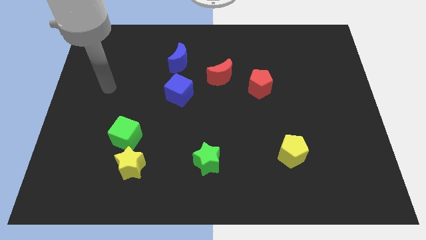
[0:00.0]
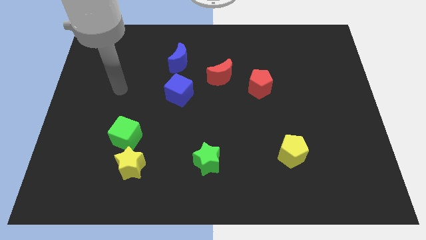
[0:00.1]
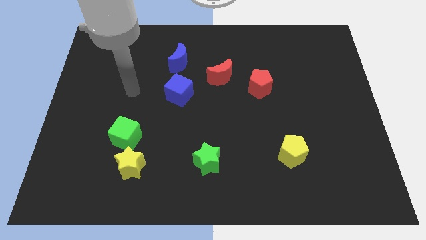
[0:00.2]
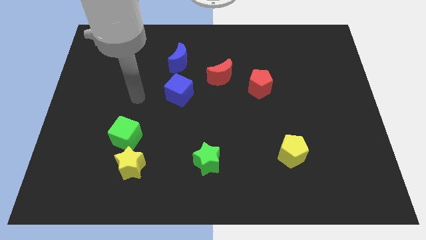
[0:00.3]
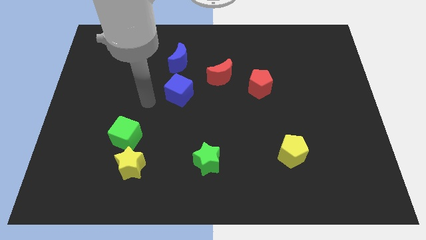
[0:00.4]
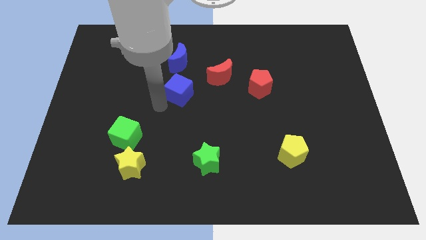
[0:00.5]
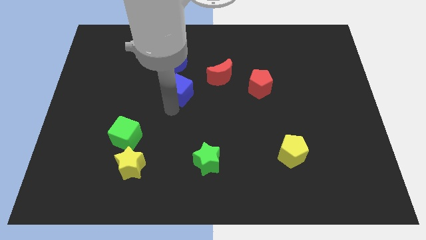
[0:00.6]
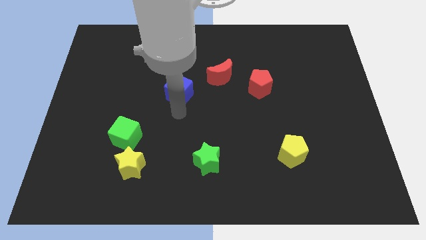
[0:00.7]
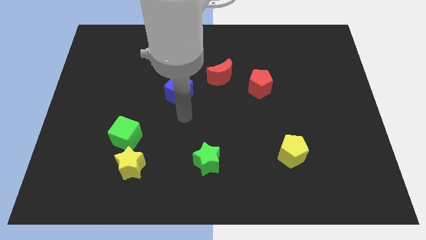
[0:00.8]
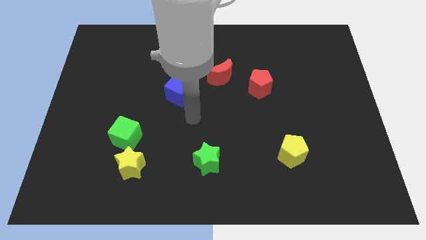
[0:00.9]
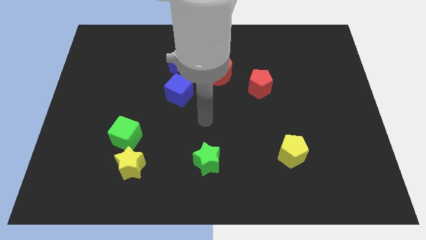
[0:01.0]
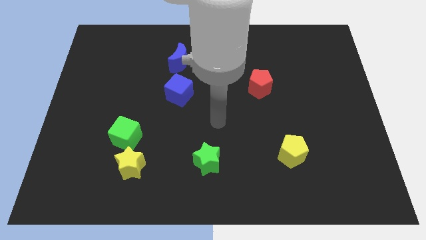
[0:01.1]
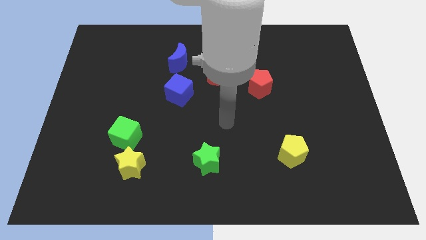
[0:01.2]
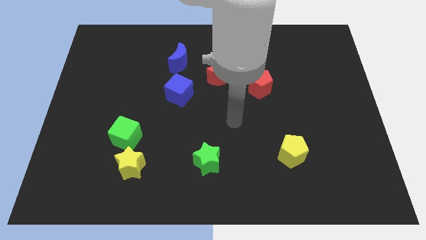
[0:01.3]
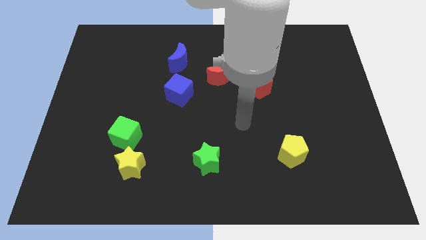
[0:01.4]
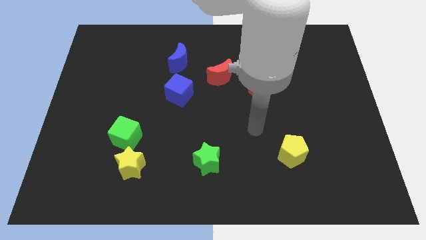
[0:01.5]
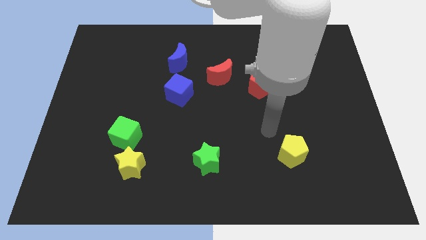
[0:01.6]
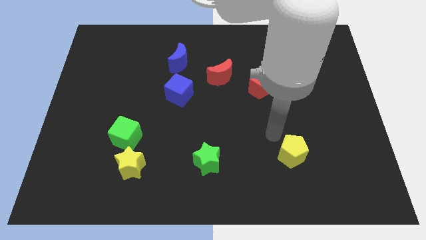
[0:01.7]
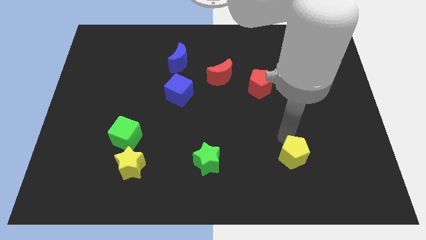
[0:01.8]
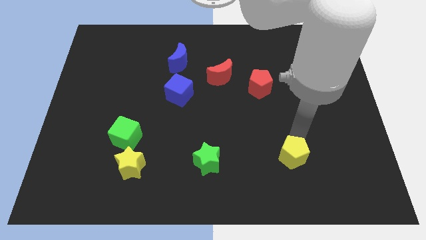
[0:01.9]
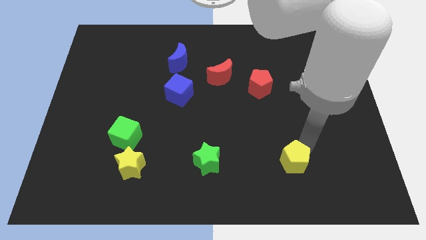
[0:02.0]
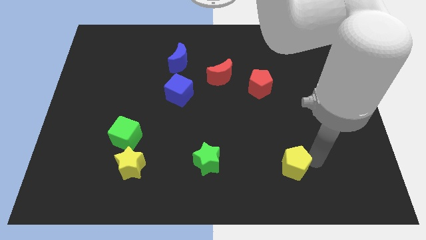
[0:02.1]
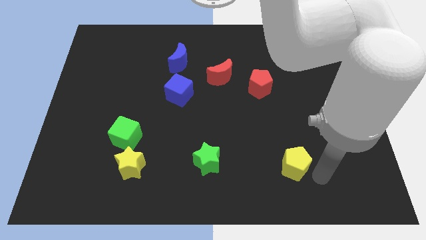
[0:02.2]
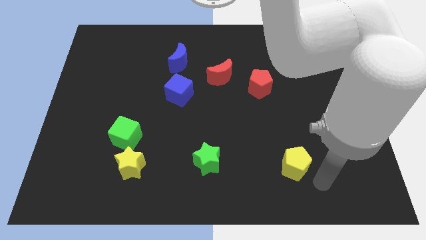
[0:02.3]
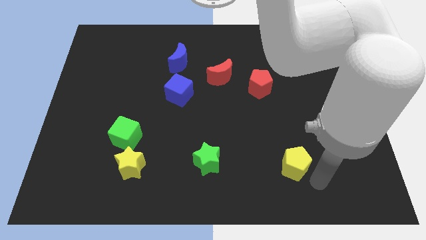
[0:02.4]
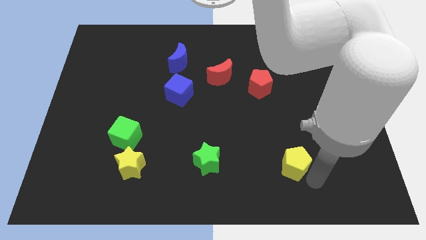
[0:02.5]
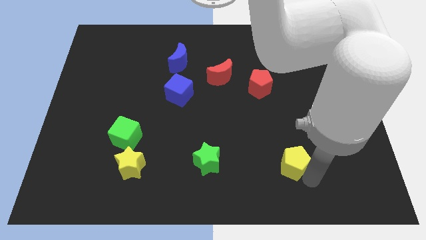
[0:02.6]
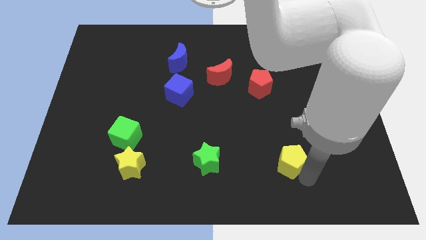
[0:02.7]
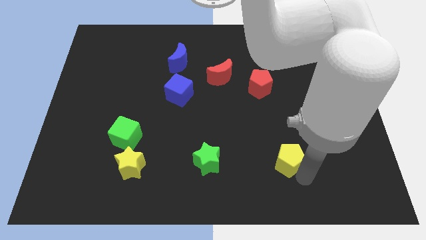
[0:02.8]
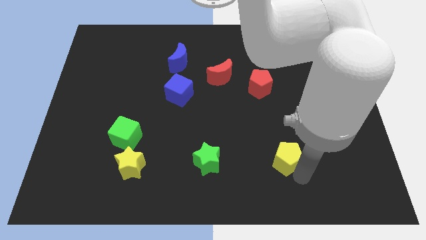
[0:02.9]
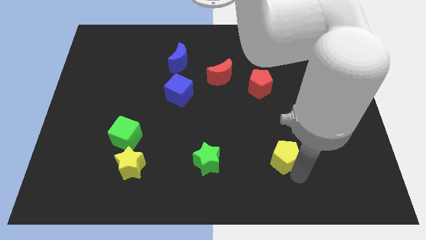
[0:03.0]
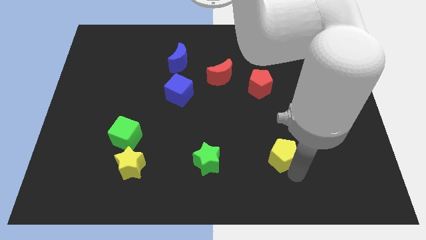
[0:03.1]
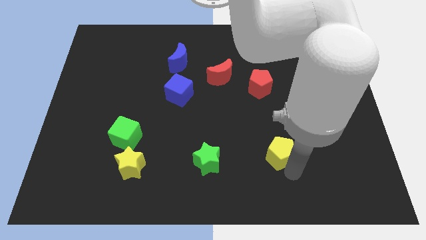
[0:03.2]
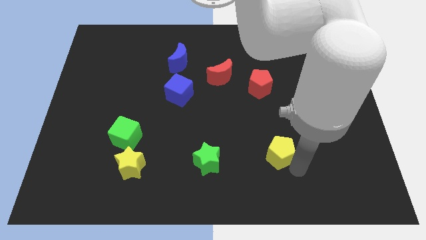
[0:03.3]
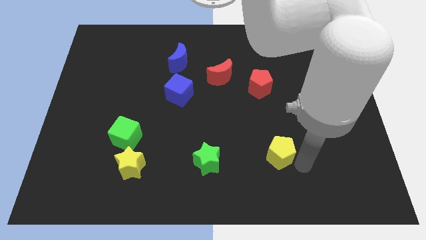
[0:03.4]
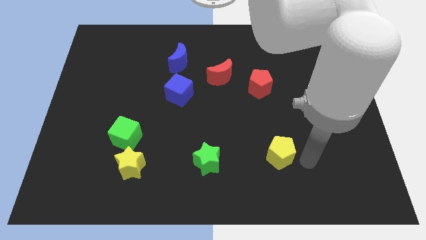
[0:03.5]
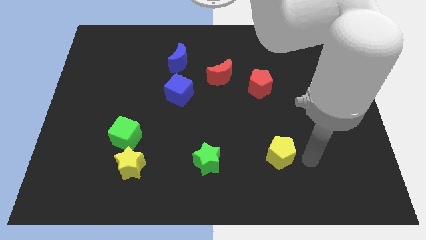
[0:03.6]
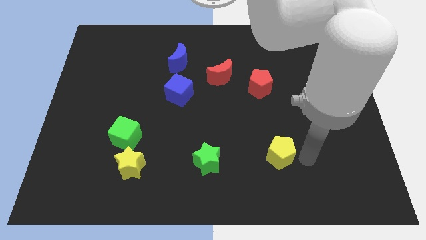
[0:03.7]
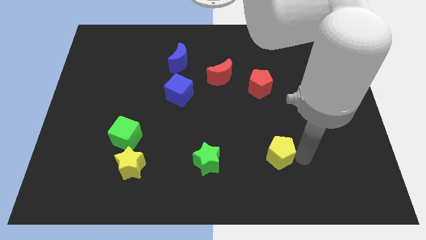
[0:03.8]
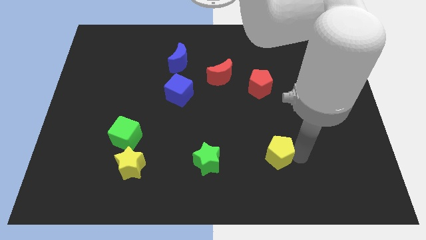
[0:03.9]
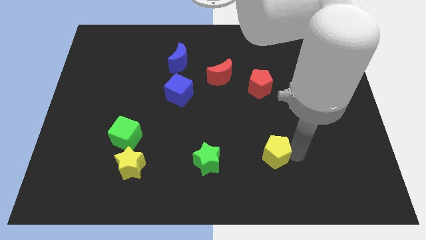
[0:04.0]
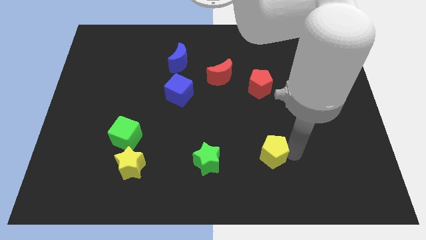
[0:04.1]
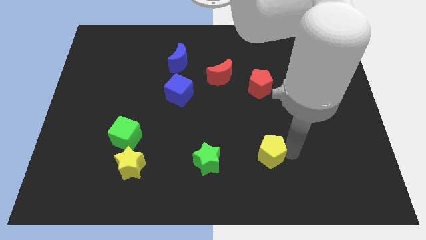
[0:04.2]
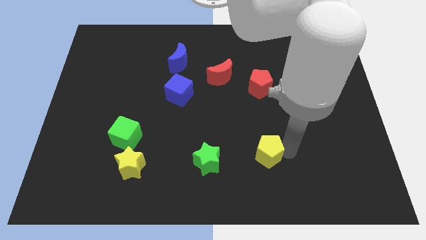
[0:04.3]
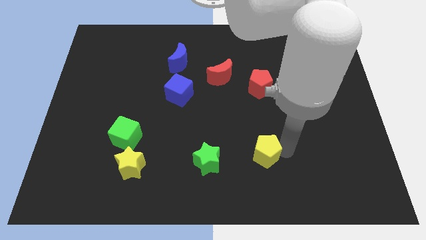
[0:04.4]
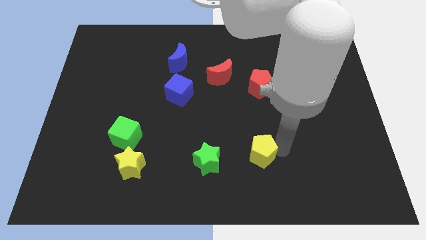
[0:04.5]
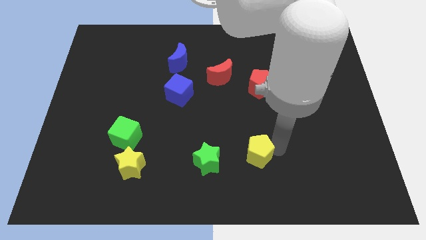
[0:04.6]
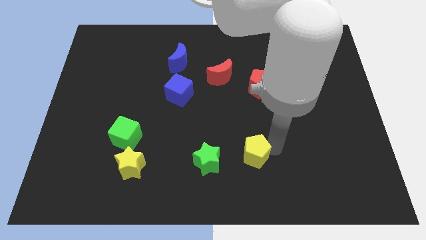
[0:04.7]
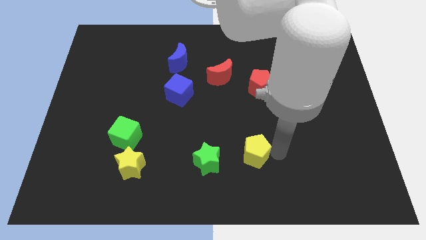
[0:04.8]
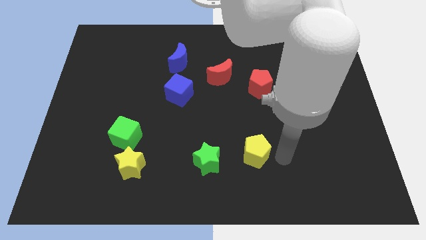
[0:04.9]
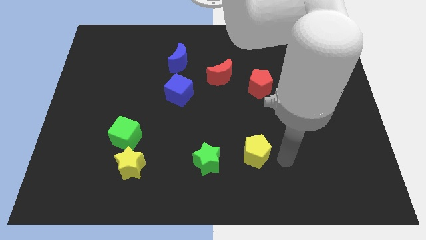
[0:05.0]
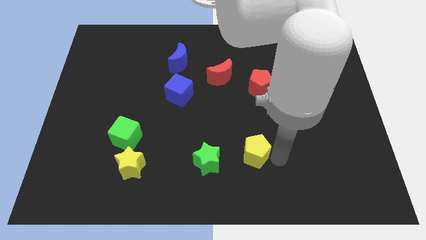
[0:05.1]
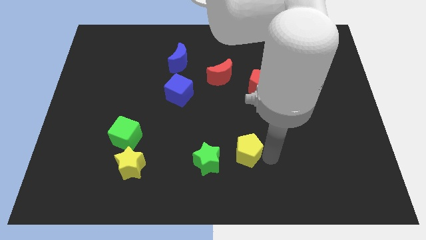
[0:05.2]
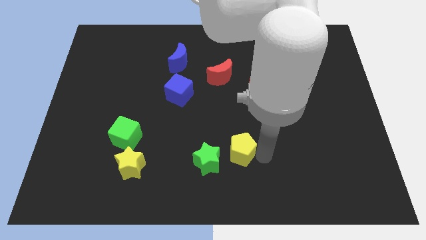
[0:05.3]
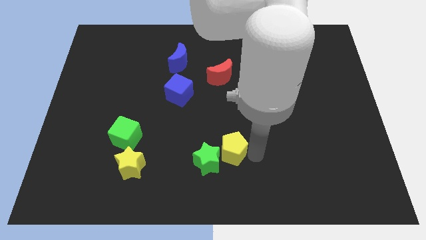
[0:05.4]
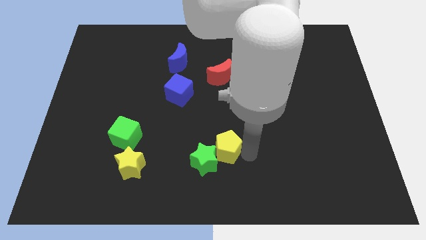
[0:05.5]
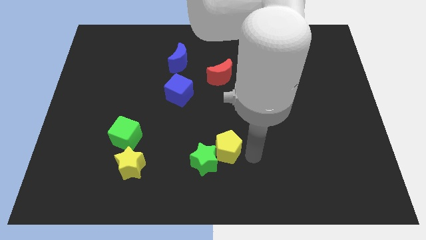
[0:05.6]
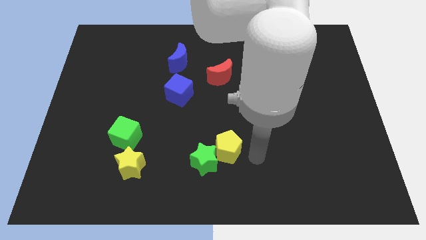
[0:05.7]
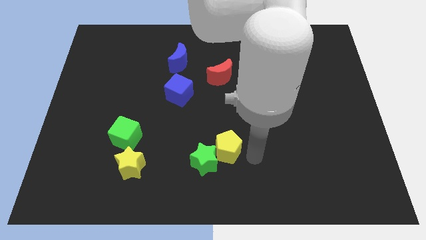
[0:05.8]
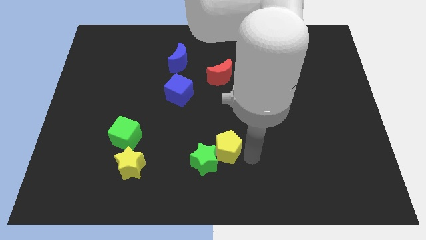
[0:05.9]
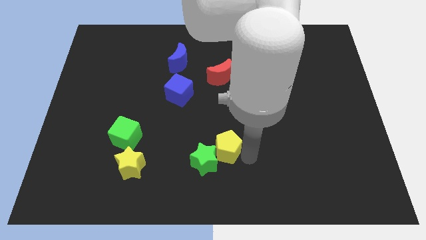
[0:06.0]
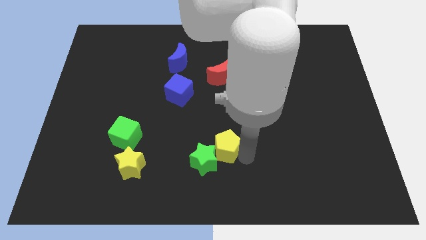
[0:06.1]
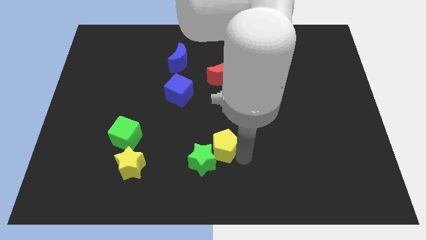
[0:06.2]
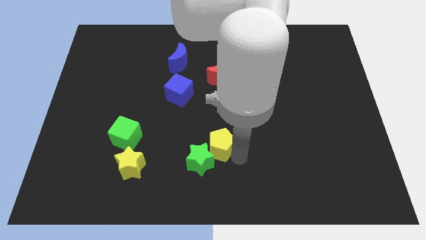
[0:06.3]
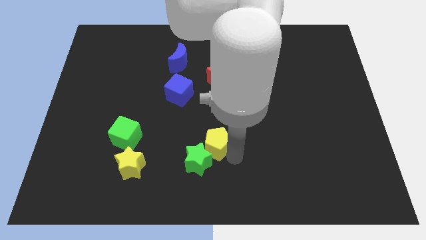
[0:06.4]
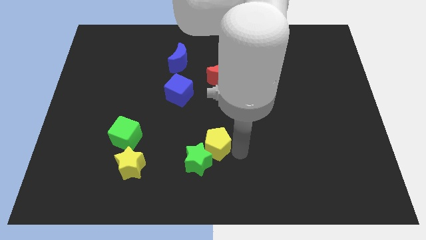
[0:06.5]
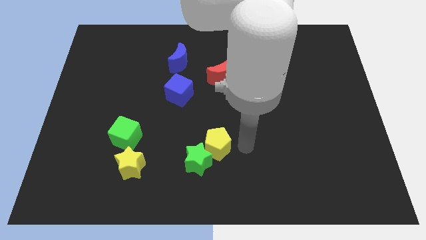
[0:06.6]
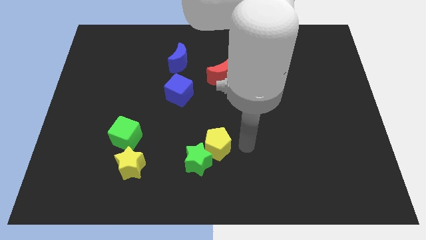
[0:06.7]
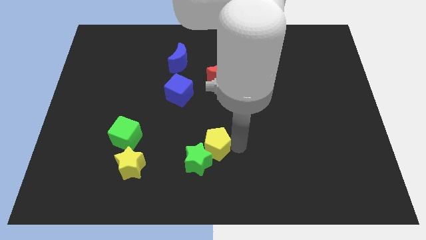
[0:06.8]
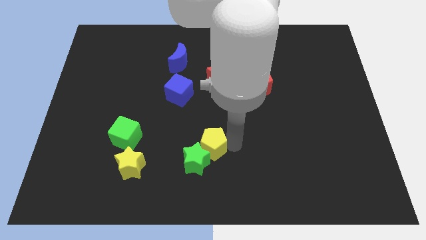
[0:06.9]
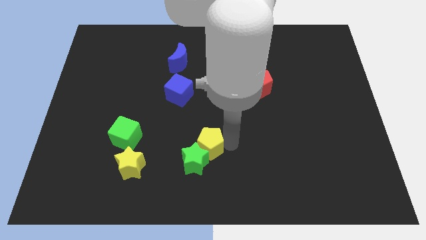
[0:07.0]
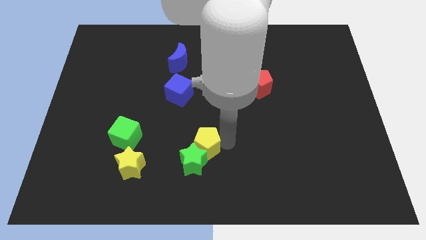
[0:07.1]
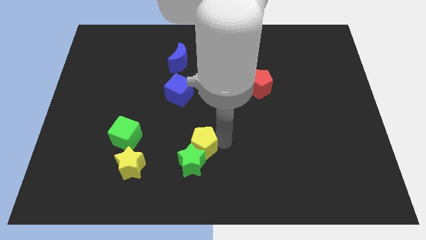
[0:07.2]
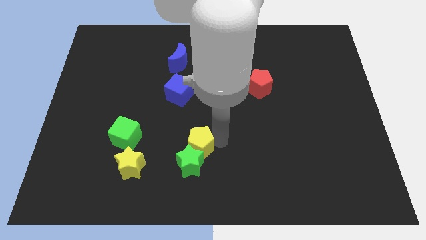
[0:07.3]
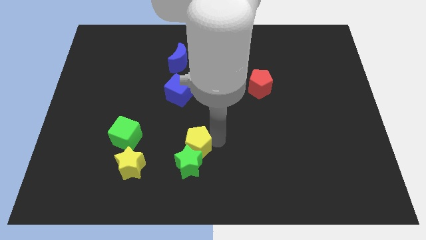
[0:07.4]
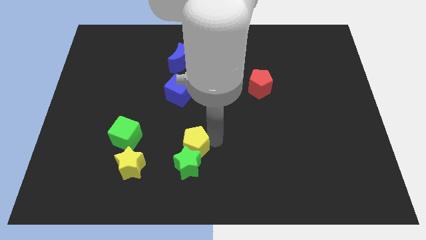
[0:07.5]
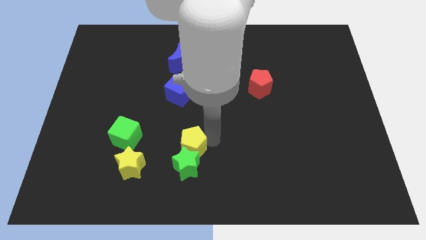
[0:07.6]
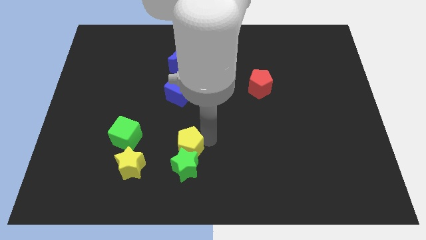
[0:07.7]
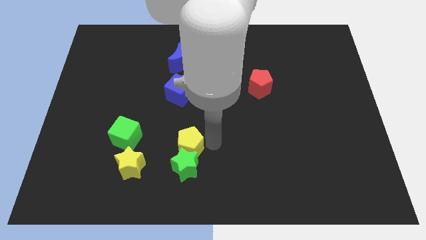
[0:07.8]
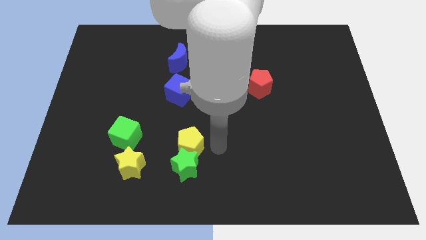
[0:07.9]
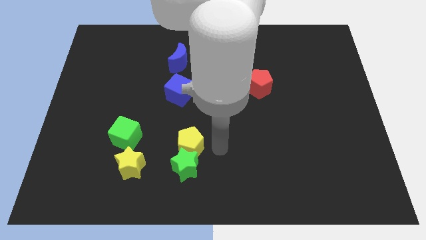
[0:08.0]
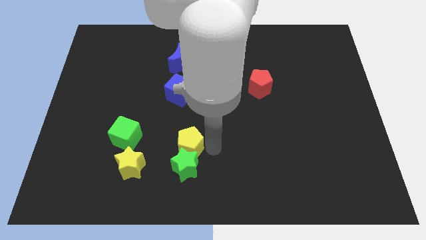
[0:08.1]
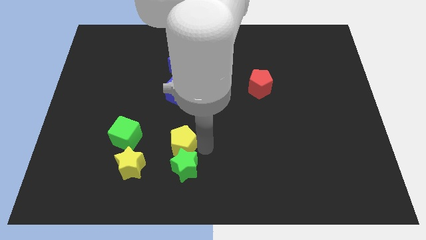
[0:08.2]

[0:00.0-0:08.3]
move the yellow pentagon to the top right side of the yellow star

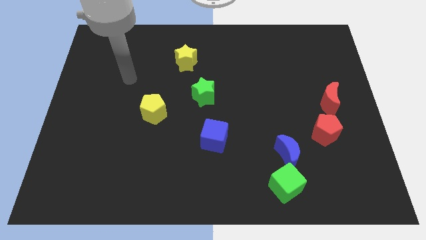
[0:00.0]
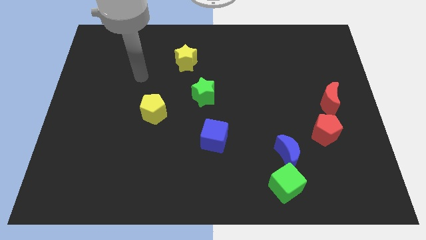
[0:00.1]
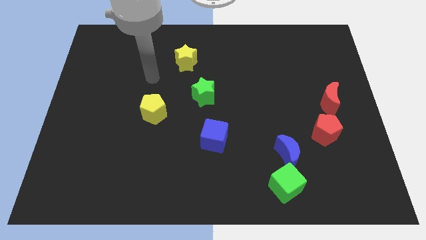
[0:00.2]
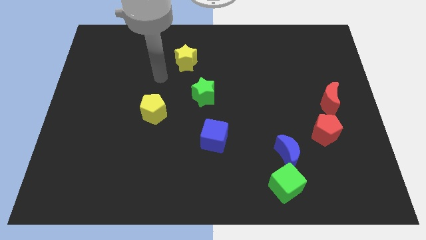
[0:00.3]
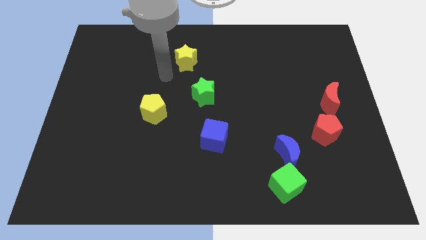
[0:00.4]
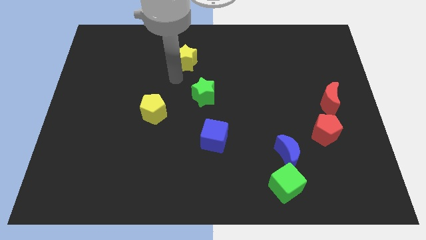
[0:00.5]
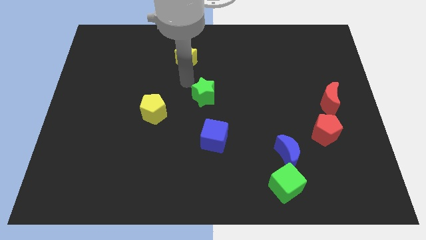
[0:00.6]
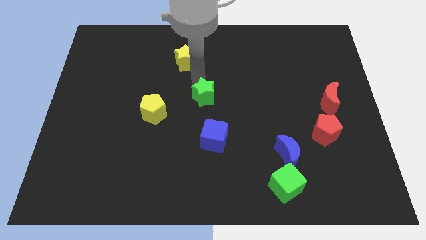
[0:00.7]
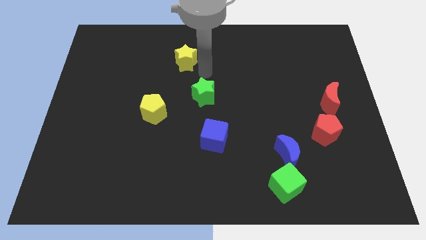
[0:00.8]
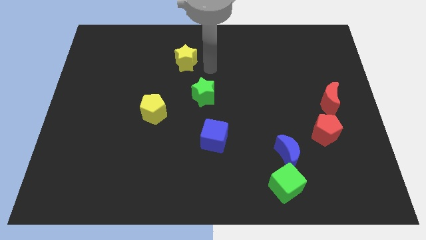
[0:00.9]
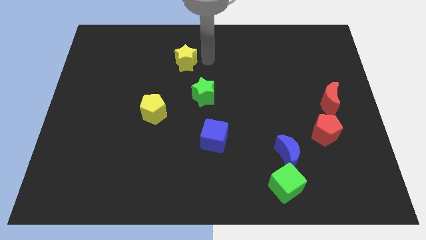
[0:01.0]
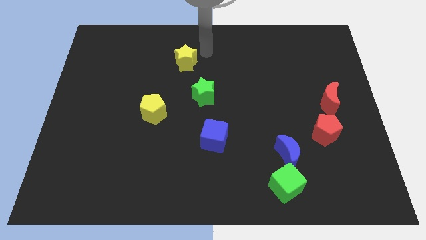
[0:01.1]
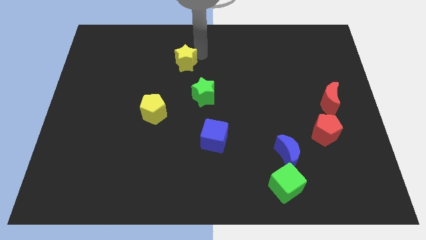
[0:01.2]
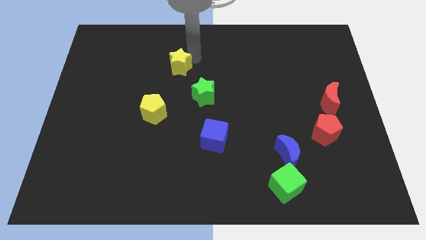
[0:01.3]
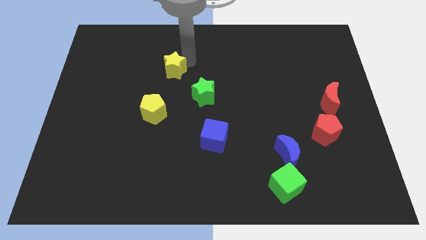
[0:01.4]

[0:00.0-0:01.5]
put the yellow star to the top of the yellow pentagon
